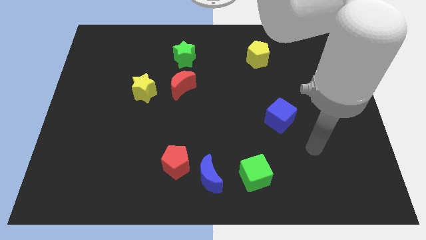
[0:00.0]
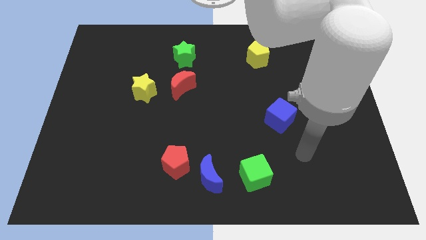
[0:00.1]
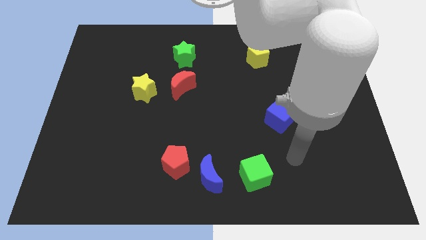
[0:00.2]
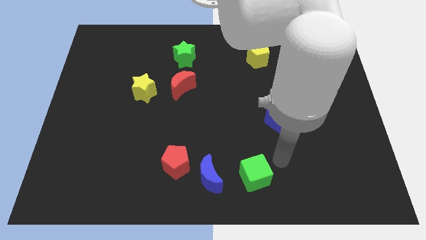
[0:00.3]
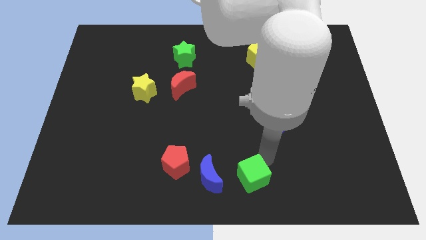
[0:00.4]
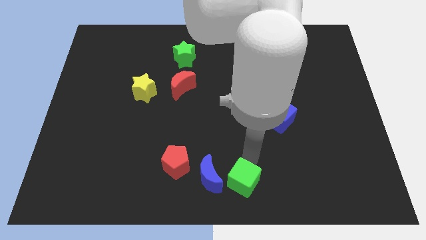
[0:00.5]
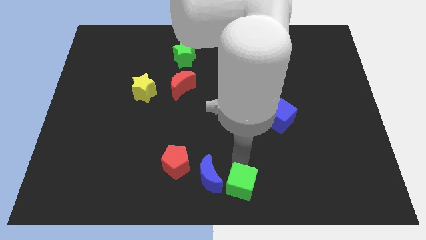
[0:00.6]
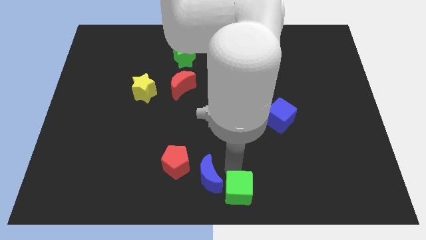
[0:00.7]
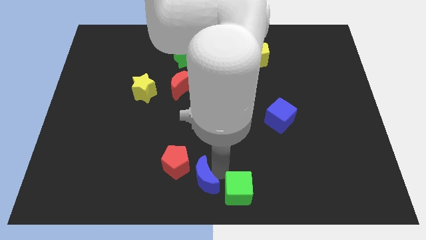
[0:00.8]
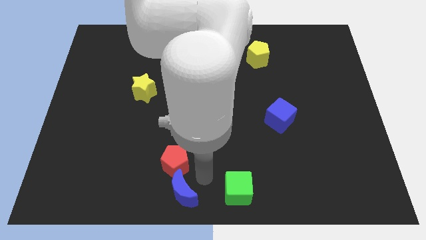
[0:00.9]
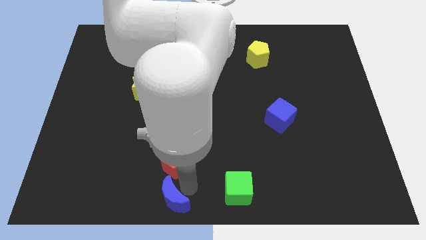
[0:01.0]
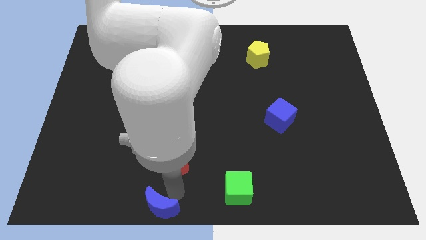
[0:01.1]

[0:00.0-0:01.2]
move the red pentagon away from the blue moon

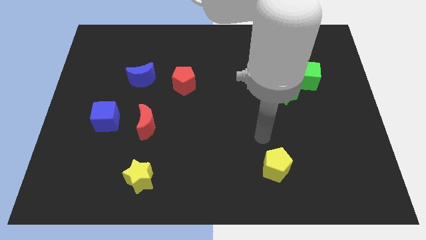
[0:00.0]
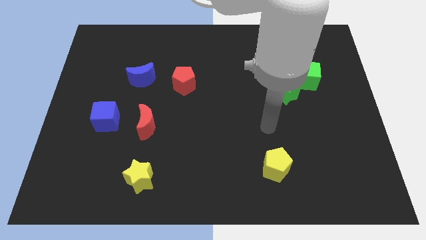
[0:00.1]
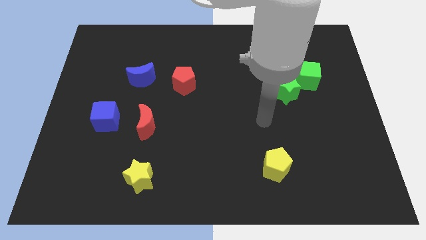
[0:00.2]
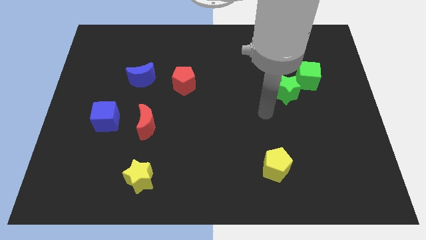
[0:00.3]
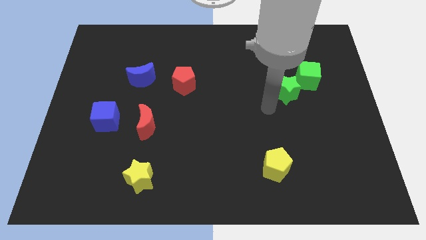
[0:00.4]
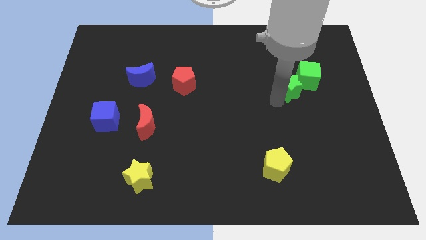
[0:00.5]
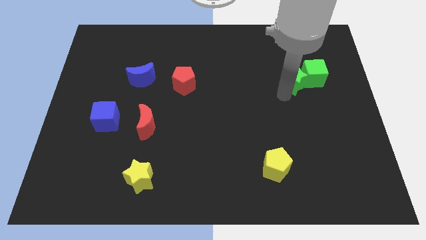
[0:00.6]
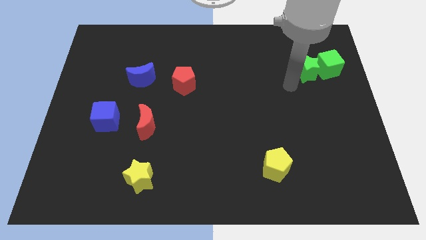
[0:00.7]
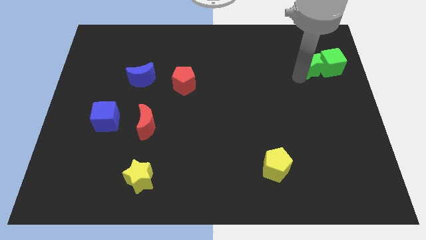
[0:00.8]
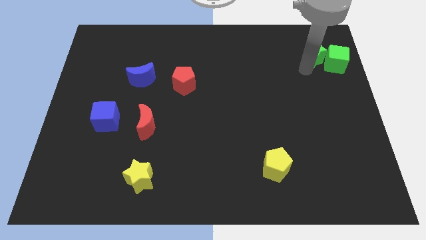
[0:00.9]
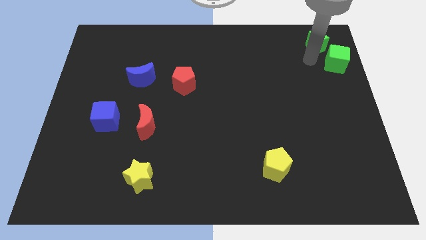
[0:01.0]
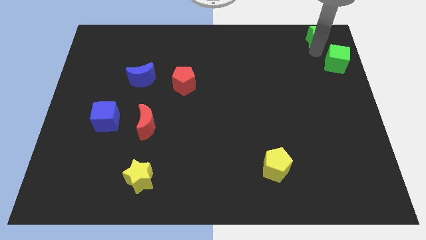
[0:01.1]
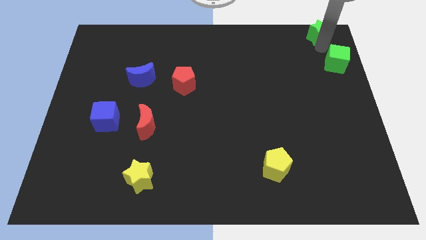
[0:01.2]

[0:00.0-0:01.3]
pull the green cube apart from the green star

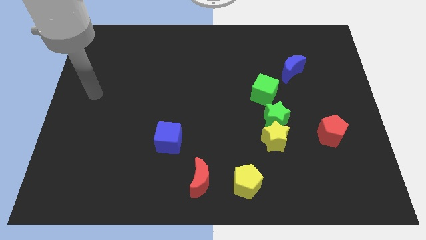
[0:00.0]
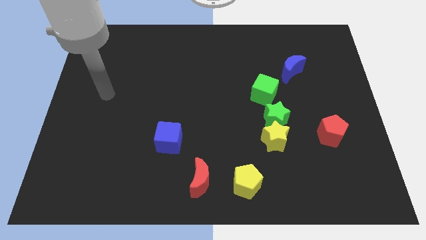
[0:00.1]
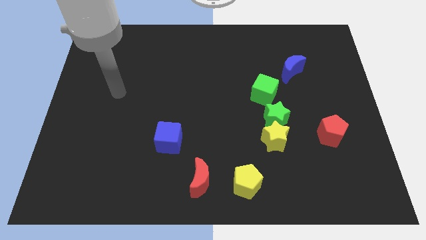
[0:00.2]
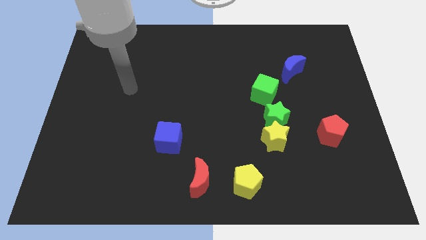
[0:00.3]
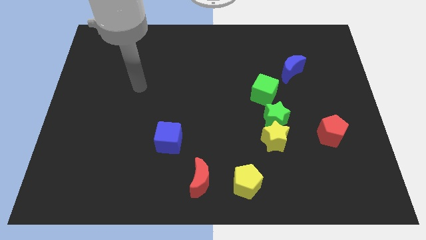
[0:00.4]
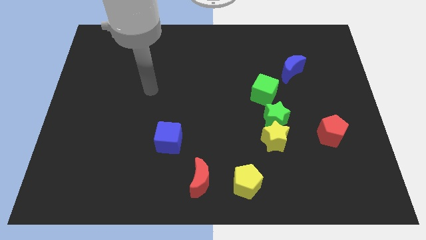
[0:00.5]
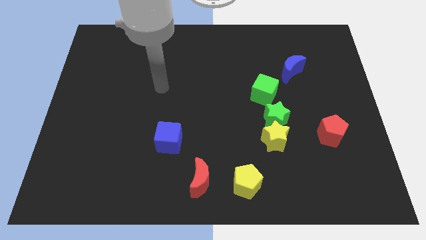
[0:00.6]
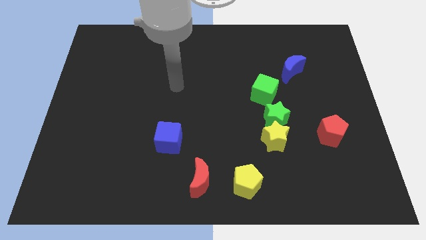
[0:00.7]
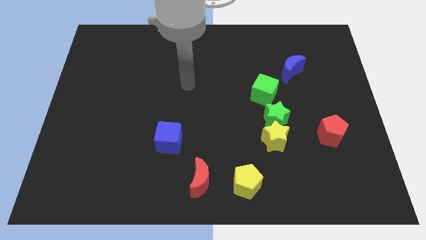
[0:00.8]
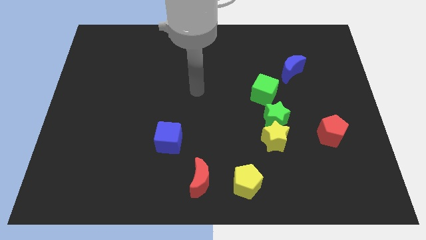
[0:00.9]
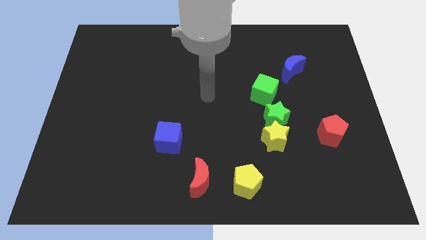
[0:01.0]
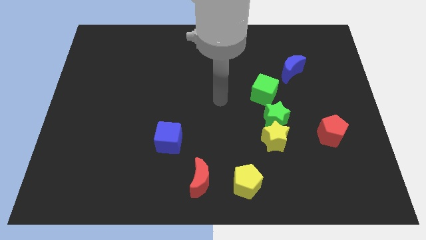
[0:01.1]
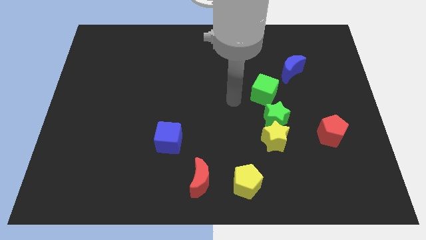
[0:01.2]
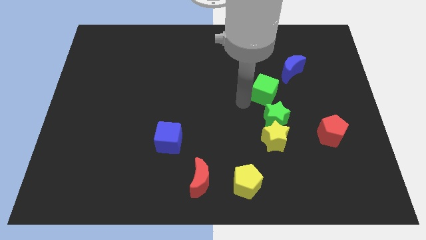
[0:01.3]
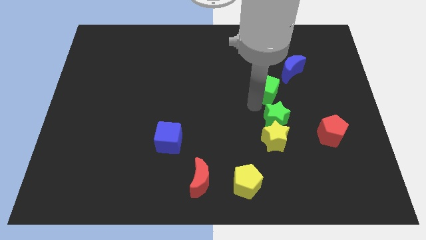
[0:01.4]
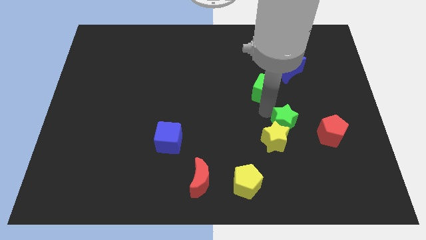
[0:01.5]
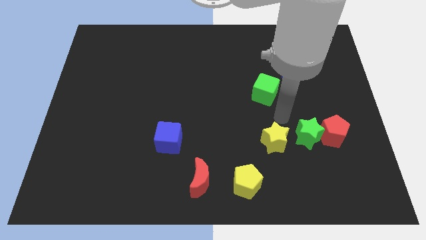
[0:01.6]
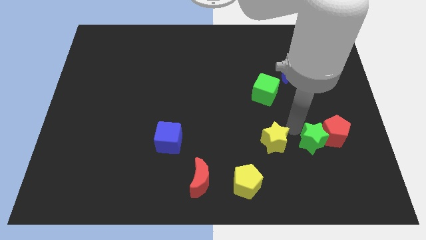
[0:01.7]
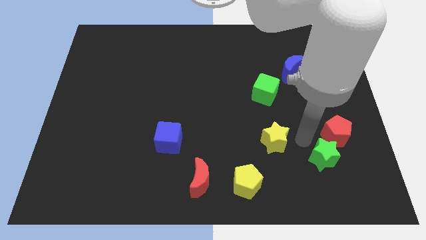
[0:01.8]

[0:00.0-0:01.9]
pull the yellow star apart from the green star

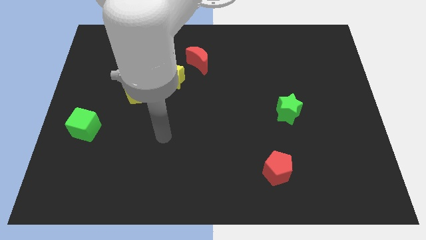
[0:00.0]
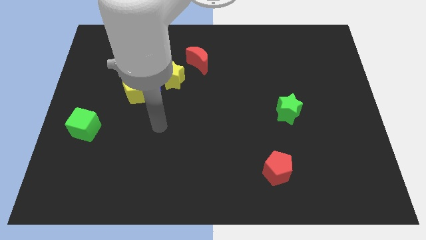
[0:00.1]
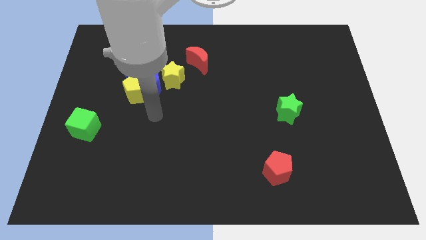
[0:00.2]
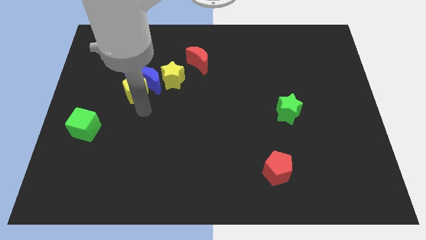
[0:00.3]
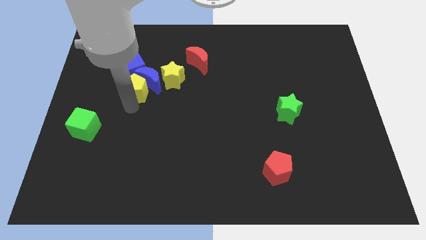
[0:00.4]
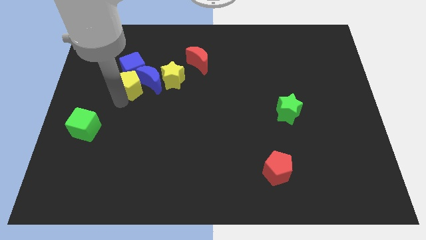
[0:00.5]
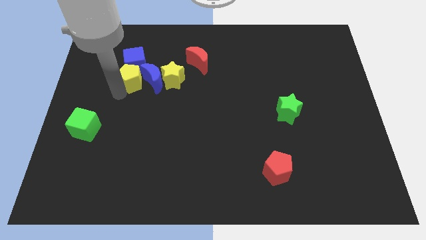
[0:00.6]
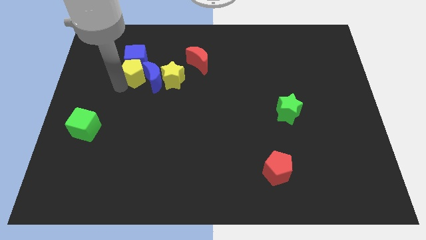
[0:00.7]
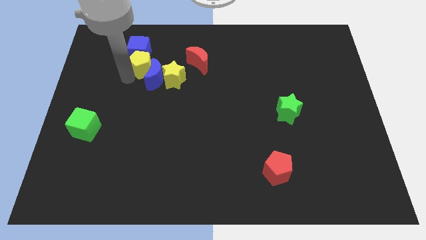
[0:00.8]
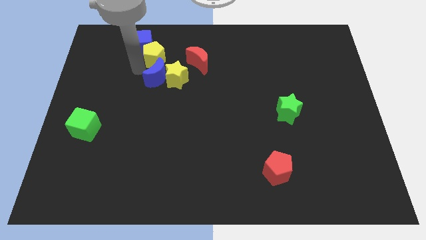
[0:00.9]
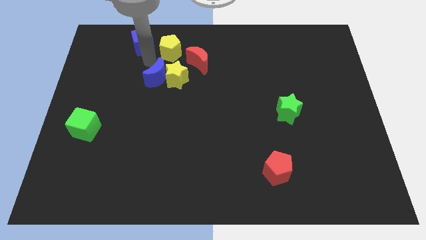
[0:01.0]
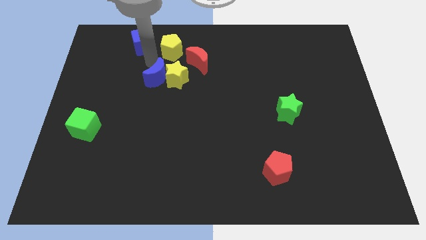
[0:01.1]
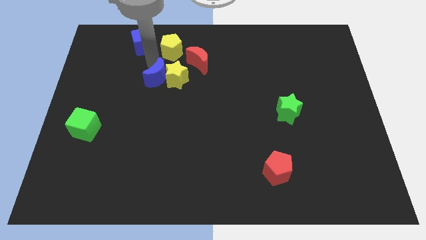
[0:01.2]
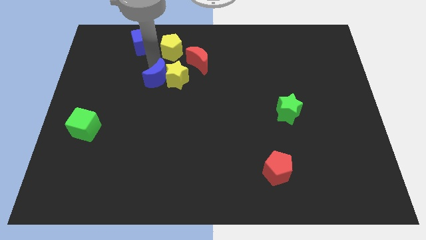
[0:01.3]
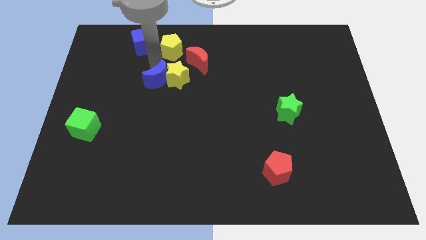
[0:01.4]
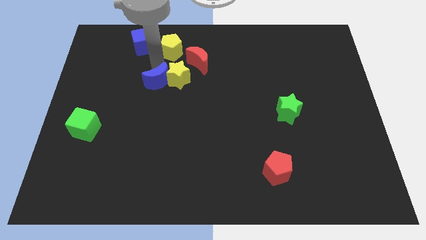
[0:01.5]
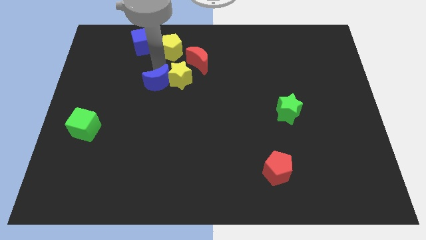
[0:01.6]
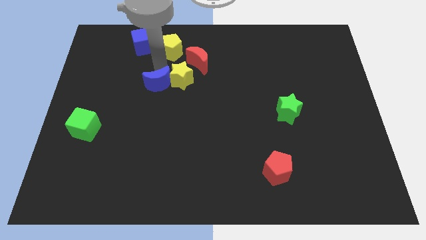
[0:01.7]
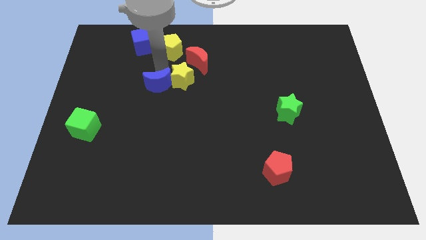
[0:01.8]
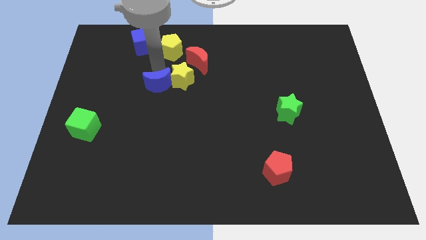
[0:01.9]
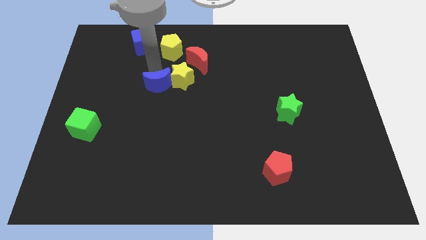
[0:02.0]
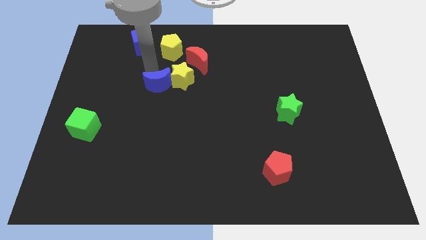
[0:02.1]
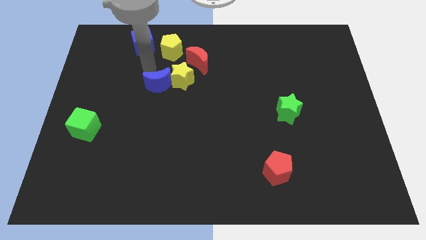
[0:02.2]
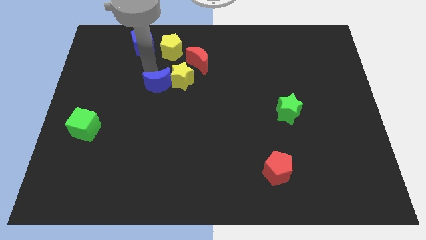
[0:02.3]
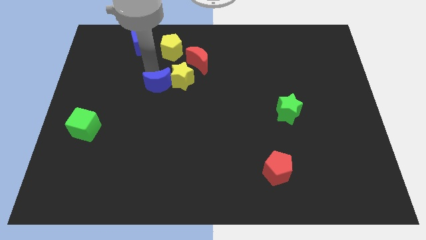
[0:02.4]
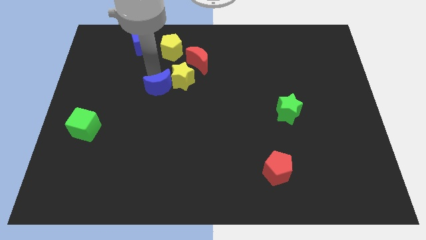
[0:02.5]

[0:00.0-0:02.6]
pull the blue moon apart from the group

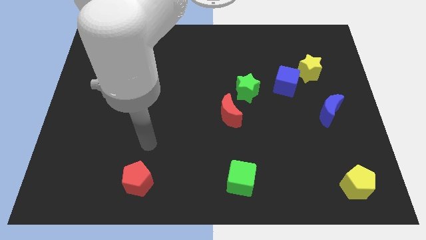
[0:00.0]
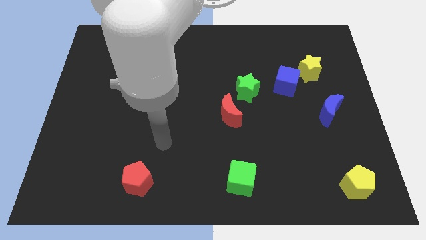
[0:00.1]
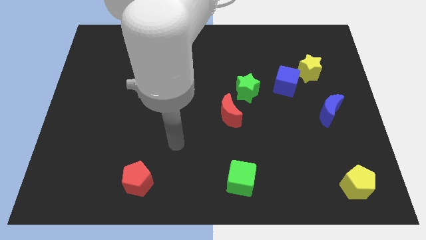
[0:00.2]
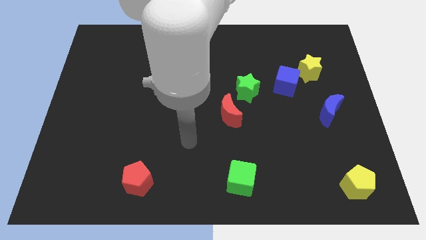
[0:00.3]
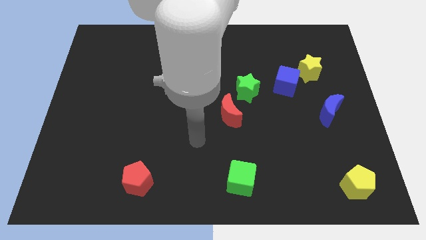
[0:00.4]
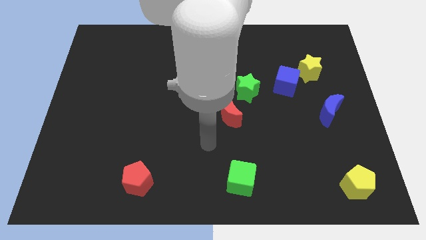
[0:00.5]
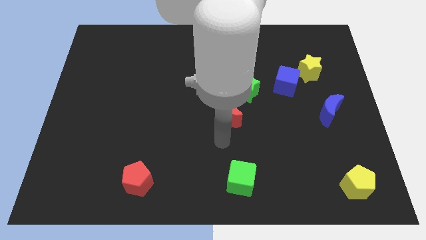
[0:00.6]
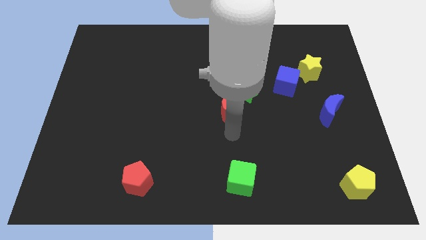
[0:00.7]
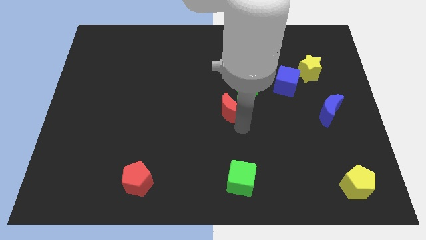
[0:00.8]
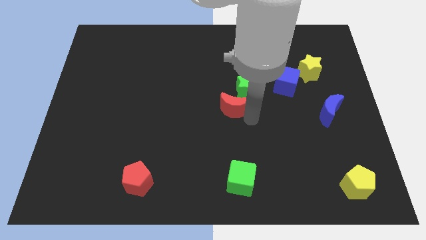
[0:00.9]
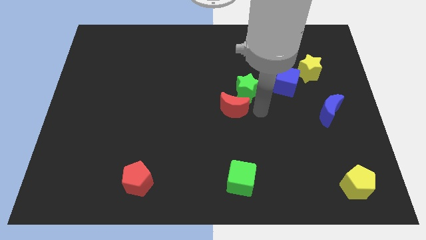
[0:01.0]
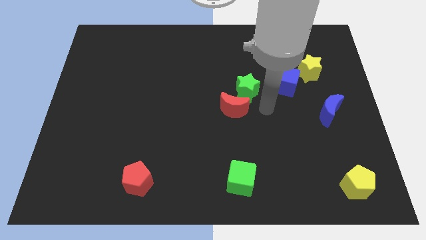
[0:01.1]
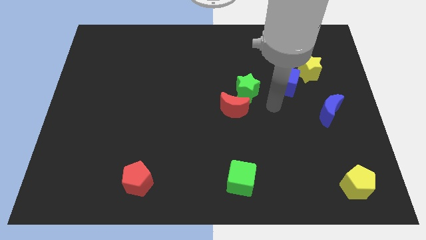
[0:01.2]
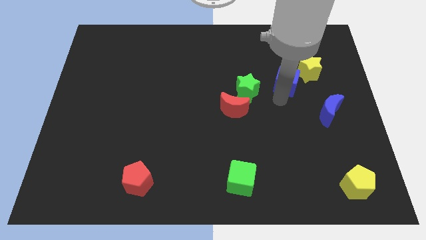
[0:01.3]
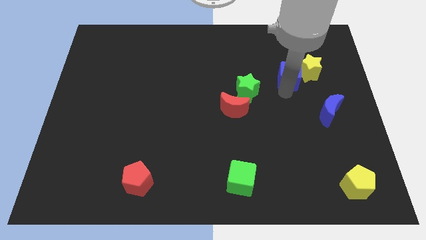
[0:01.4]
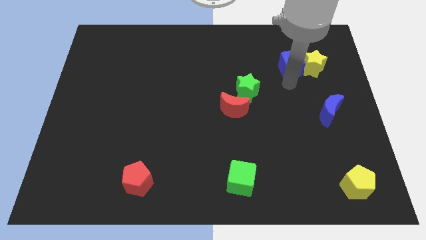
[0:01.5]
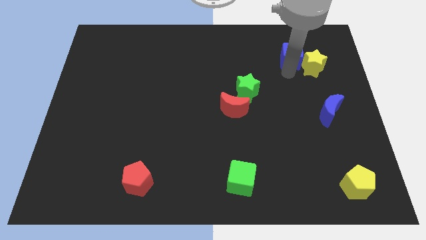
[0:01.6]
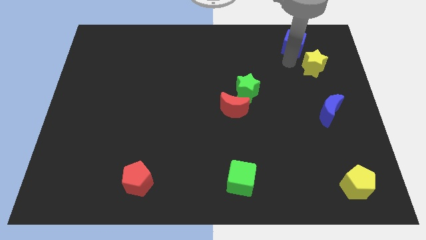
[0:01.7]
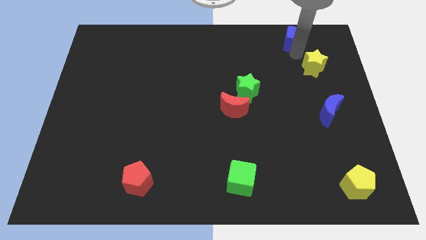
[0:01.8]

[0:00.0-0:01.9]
pull the yellow star apart from the blue cube

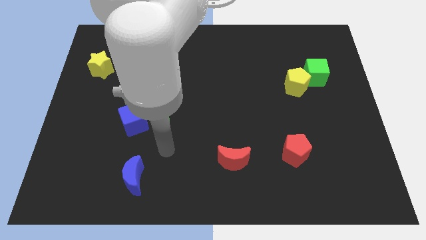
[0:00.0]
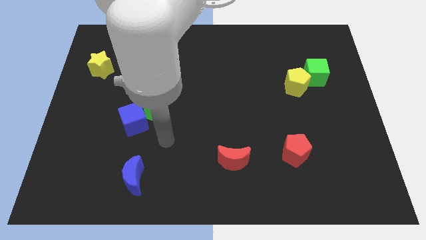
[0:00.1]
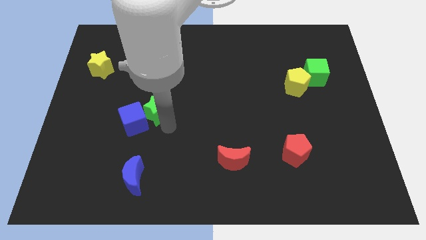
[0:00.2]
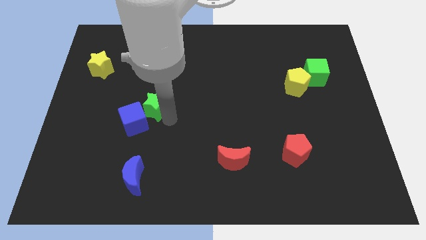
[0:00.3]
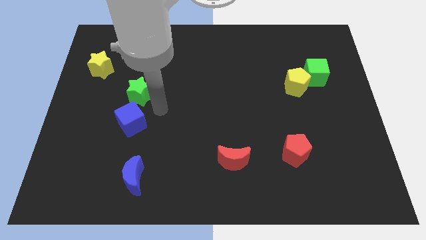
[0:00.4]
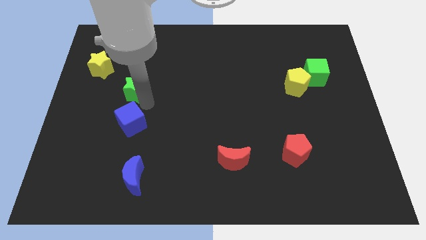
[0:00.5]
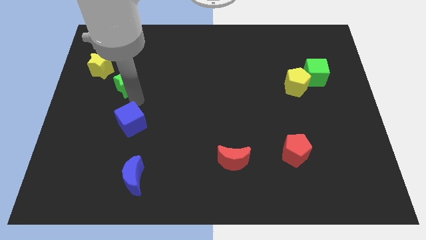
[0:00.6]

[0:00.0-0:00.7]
pull the blue cube apart from the green star
